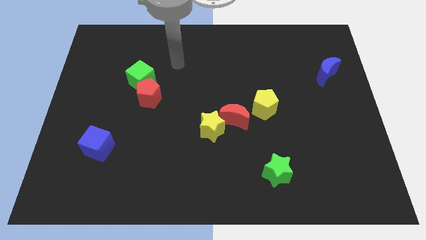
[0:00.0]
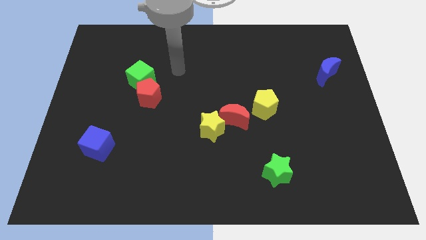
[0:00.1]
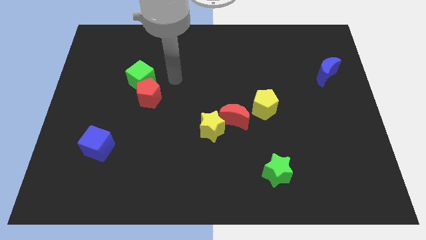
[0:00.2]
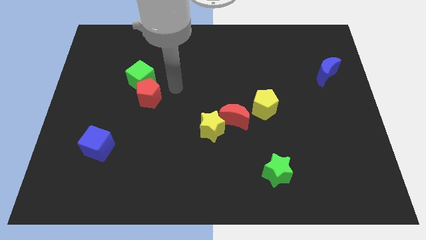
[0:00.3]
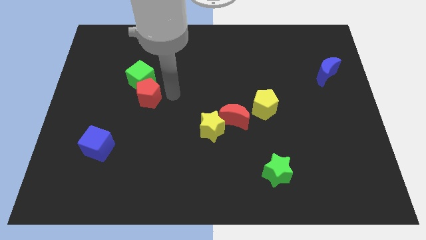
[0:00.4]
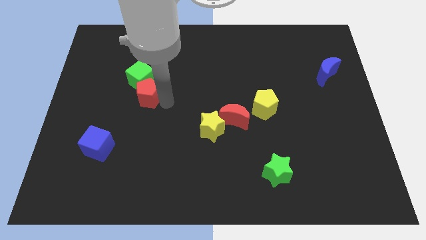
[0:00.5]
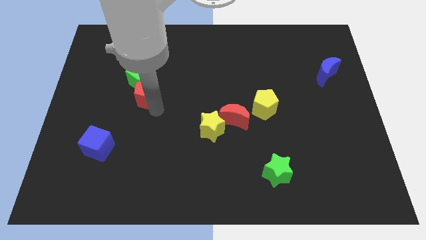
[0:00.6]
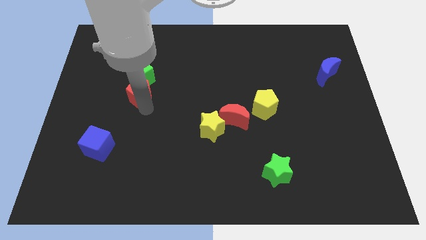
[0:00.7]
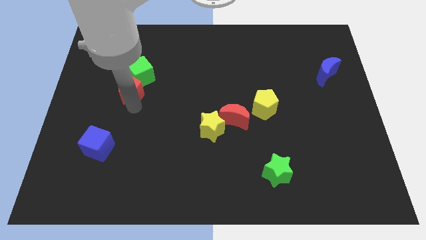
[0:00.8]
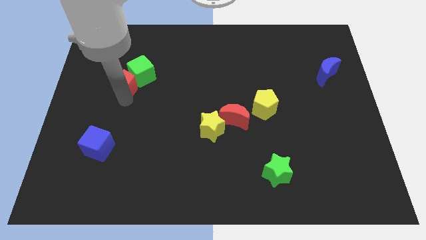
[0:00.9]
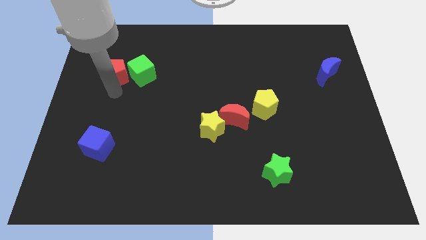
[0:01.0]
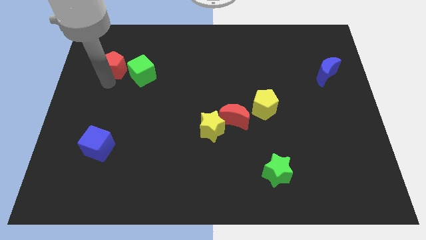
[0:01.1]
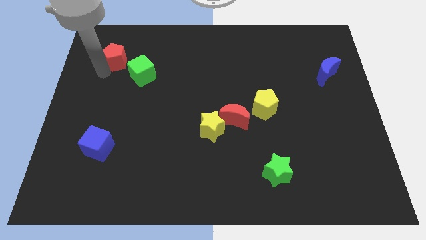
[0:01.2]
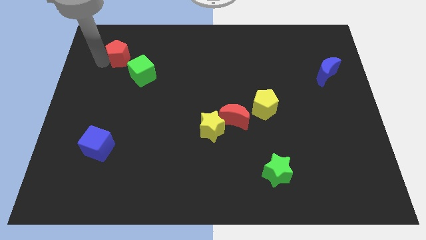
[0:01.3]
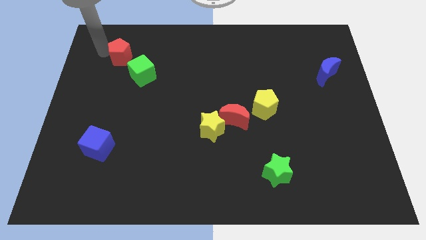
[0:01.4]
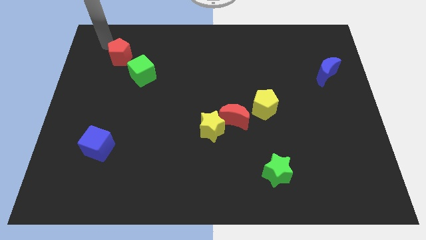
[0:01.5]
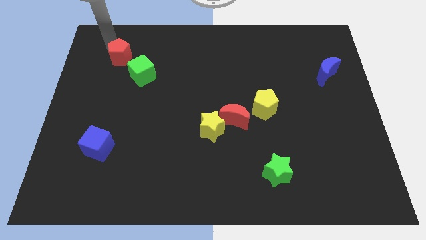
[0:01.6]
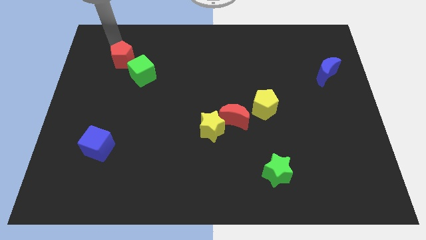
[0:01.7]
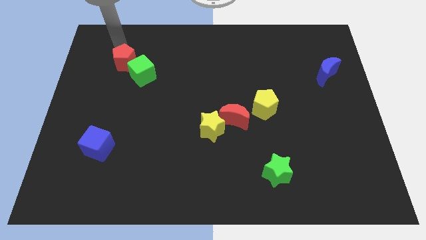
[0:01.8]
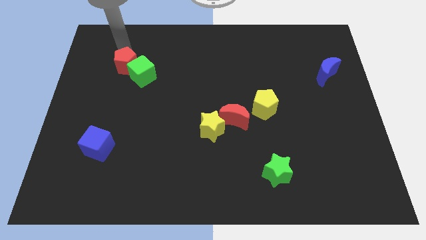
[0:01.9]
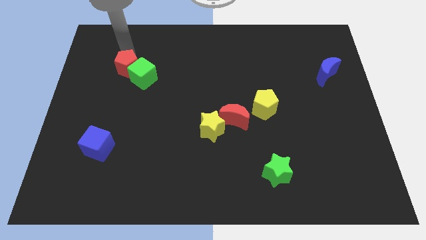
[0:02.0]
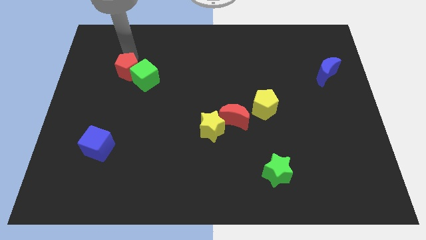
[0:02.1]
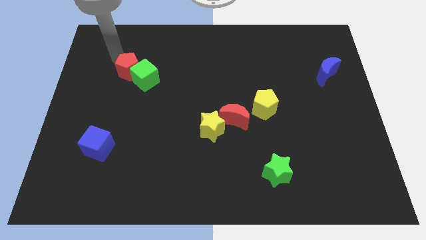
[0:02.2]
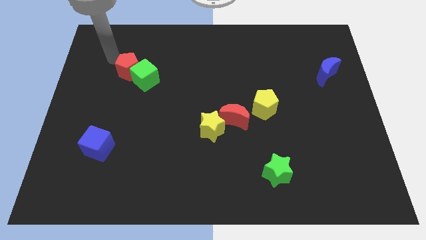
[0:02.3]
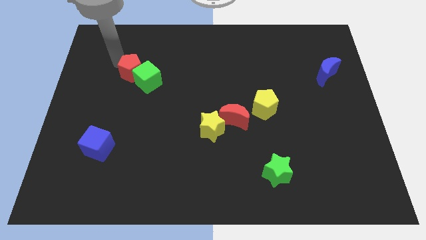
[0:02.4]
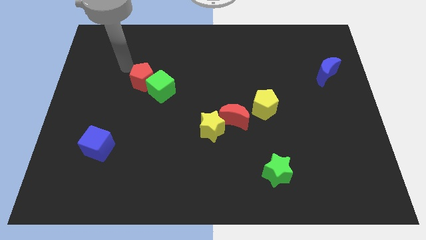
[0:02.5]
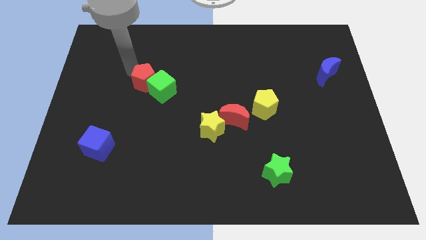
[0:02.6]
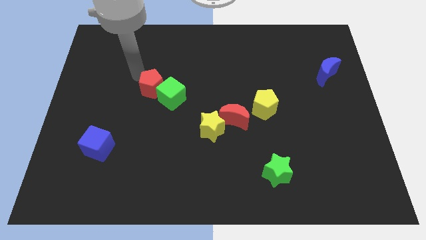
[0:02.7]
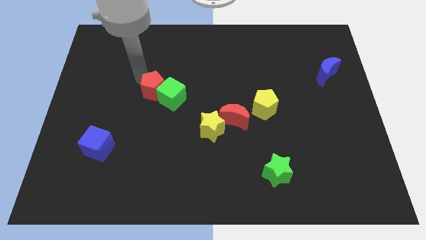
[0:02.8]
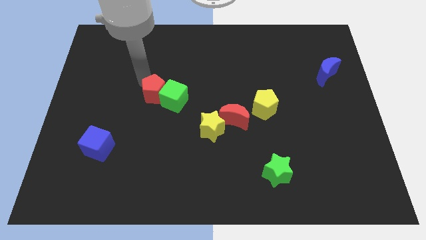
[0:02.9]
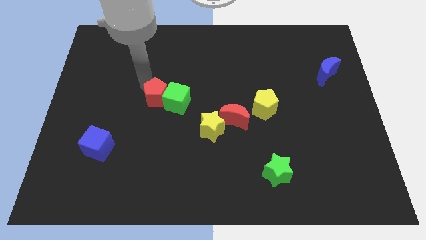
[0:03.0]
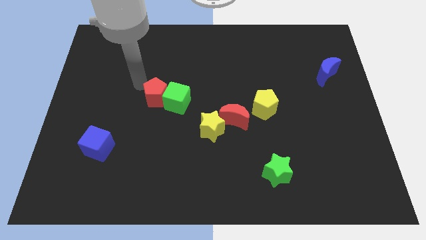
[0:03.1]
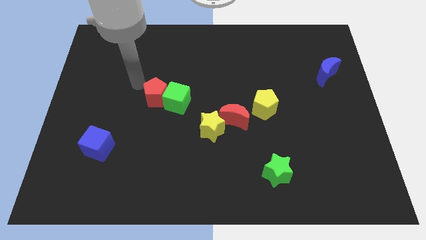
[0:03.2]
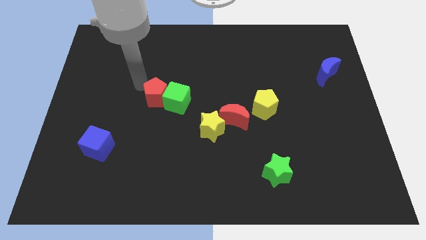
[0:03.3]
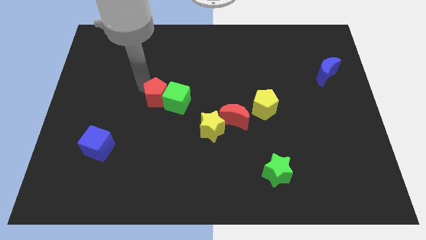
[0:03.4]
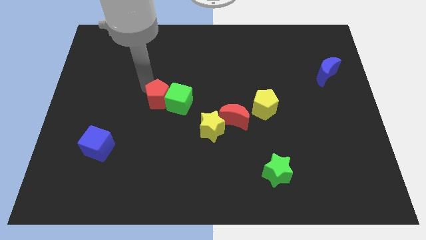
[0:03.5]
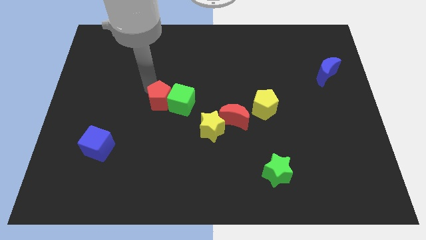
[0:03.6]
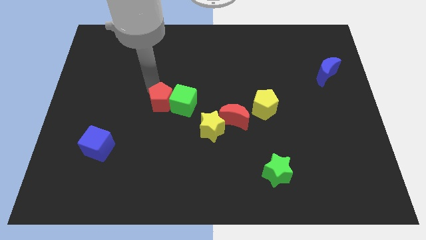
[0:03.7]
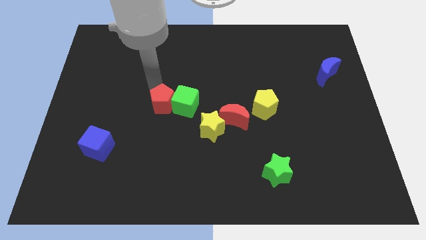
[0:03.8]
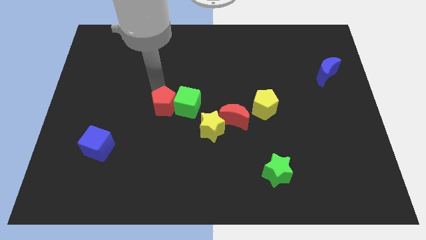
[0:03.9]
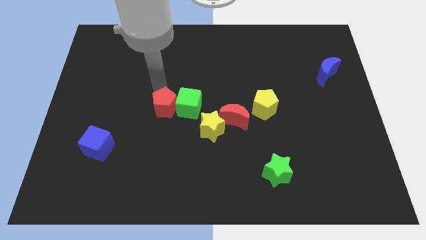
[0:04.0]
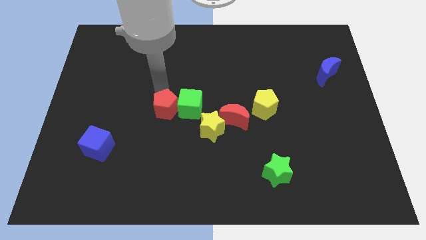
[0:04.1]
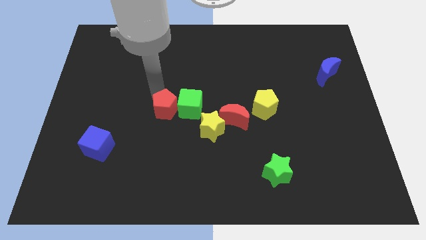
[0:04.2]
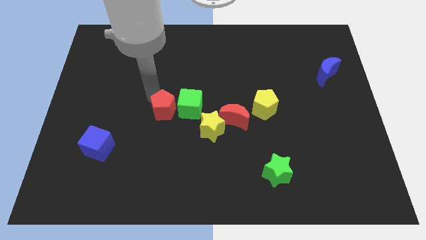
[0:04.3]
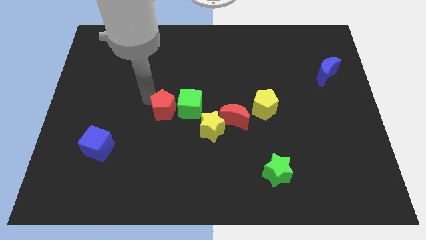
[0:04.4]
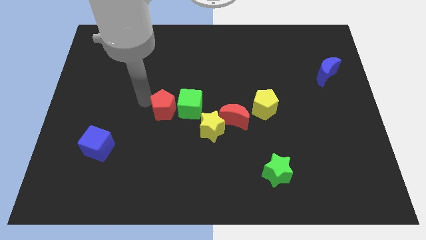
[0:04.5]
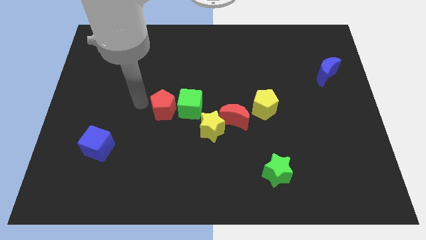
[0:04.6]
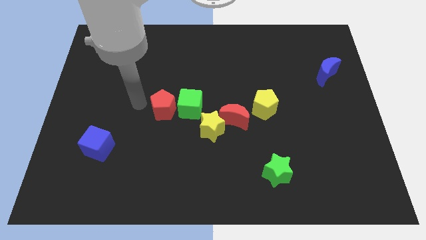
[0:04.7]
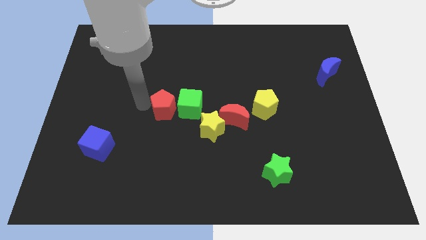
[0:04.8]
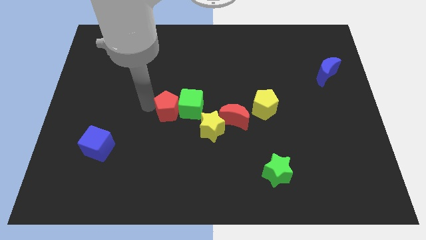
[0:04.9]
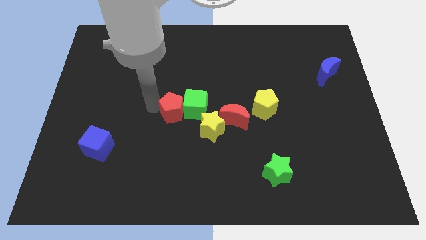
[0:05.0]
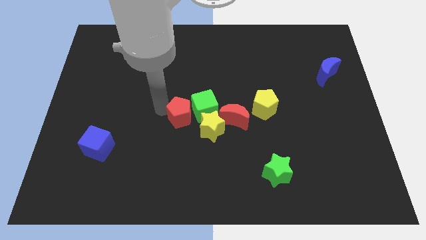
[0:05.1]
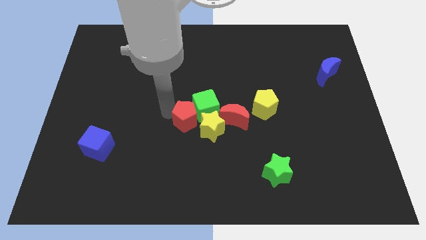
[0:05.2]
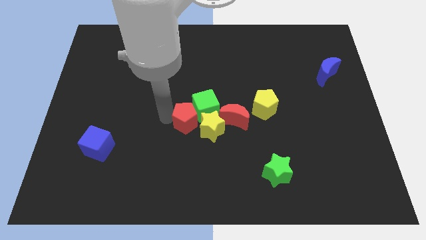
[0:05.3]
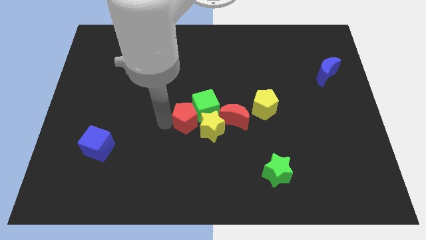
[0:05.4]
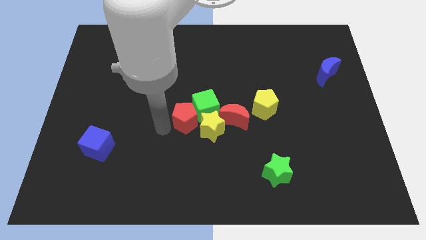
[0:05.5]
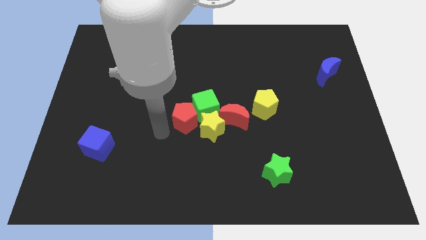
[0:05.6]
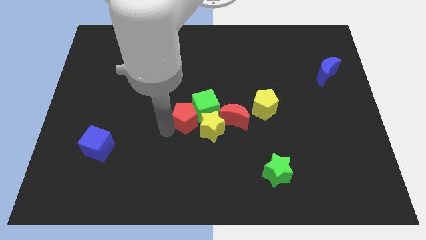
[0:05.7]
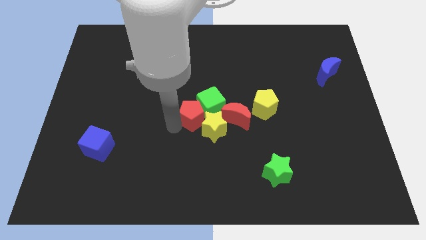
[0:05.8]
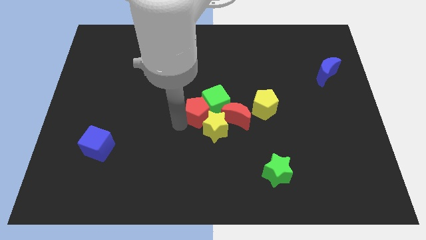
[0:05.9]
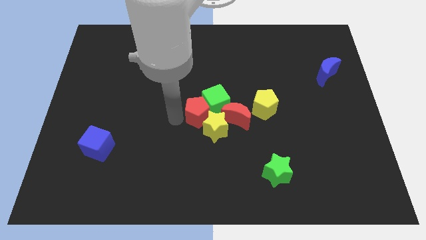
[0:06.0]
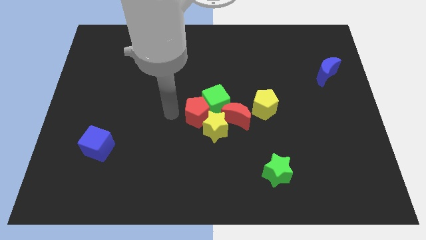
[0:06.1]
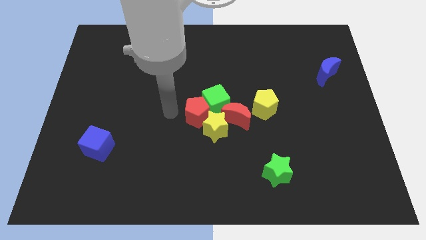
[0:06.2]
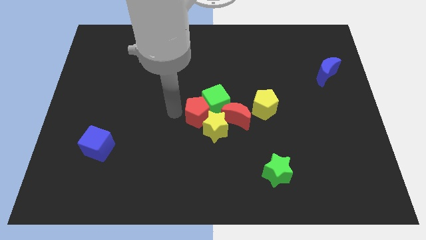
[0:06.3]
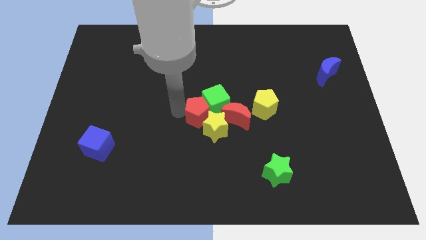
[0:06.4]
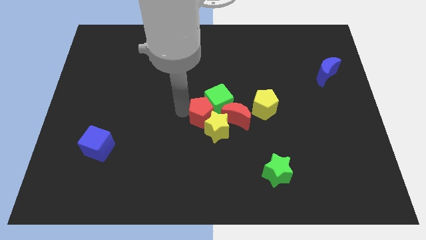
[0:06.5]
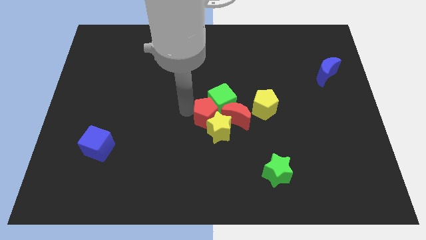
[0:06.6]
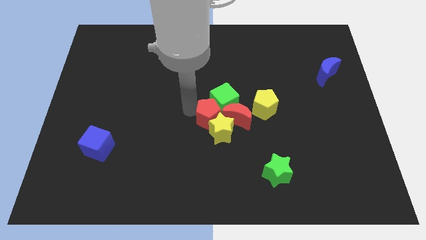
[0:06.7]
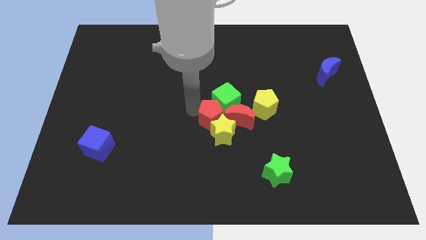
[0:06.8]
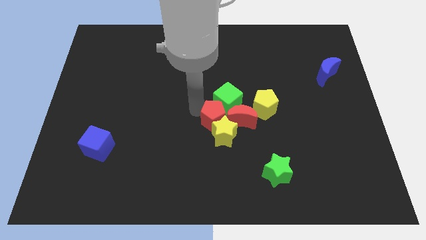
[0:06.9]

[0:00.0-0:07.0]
push the red pentagon towards the red moon

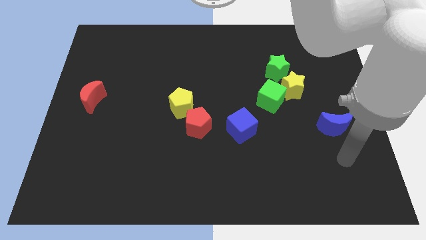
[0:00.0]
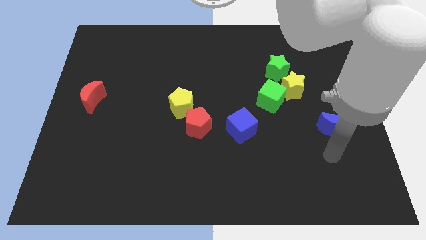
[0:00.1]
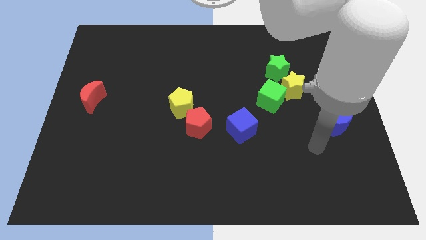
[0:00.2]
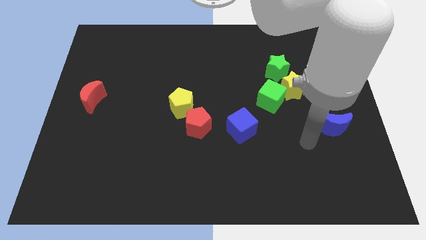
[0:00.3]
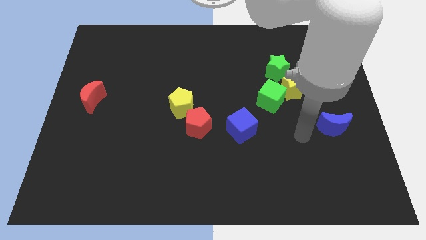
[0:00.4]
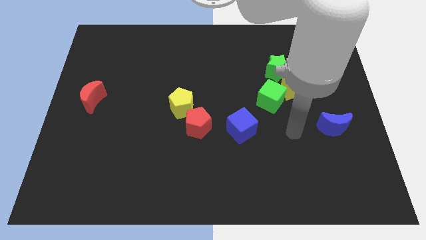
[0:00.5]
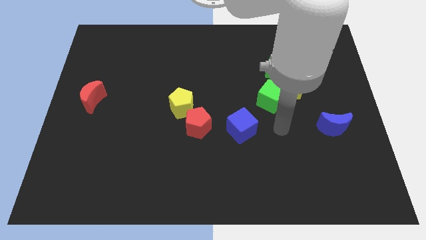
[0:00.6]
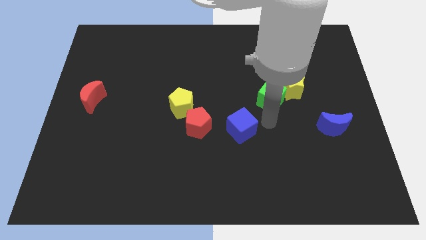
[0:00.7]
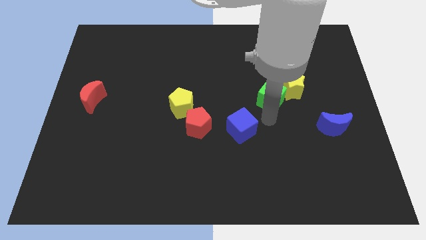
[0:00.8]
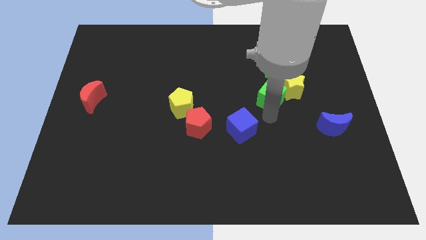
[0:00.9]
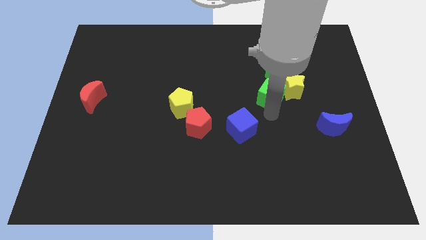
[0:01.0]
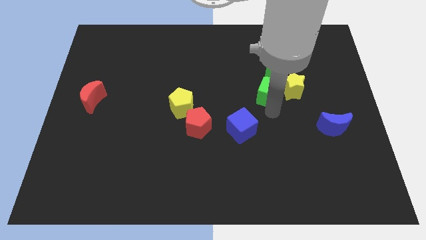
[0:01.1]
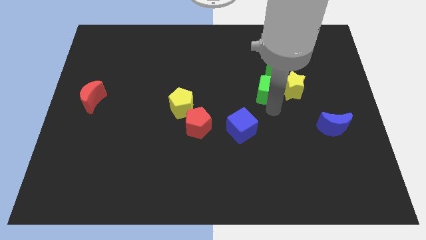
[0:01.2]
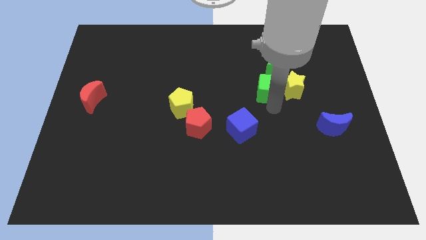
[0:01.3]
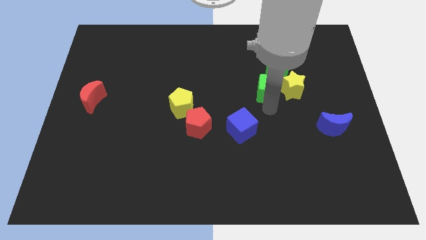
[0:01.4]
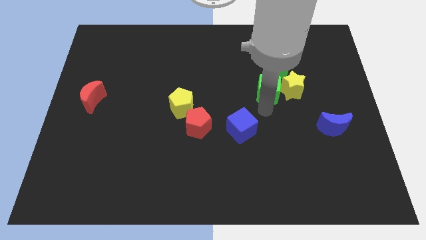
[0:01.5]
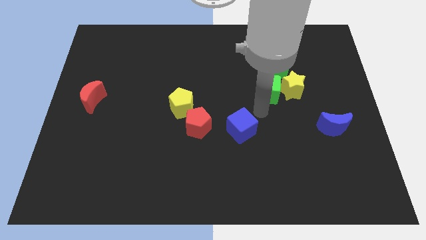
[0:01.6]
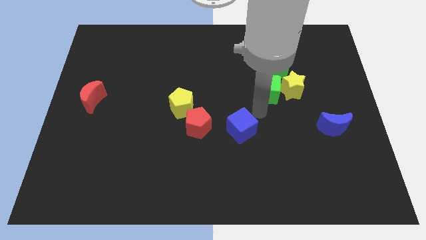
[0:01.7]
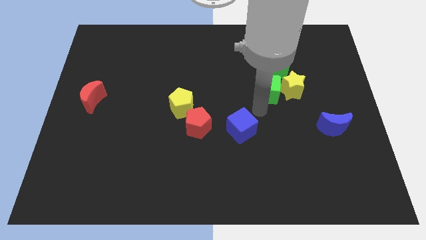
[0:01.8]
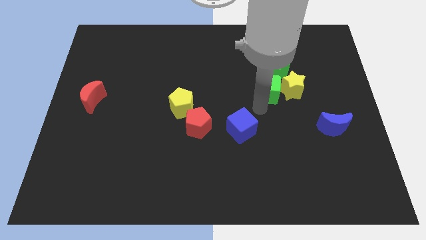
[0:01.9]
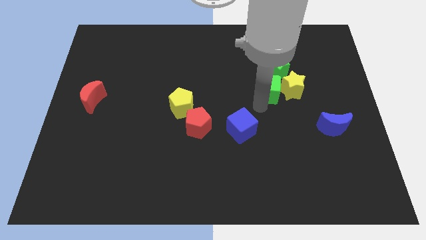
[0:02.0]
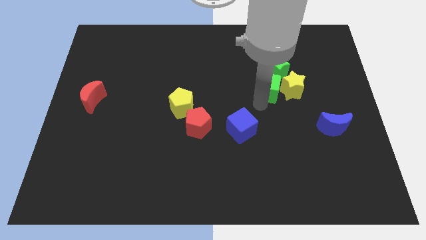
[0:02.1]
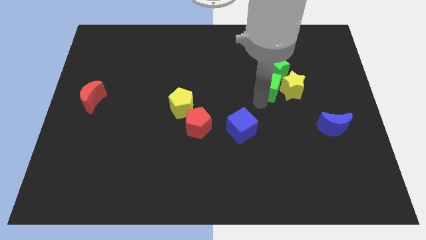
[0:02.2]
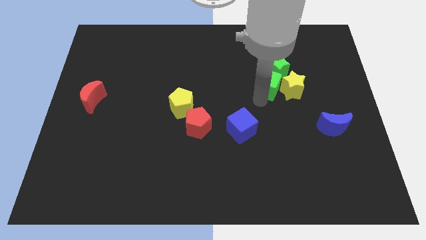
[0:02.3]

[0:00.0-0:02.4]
move the green cube to the green star
